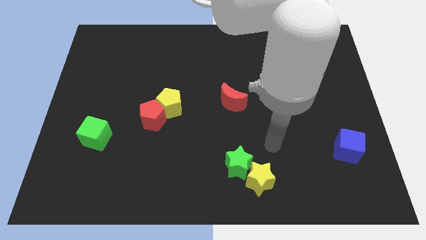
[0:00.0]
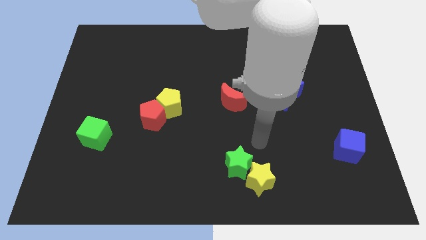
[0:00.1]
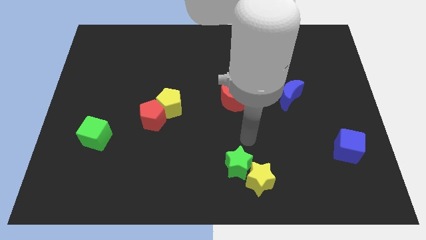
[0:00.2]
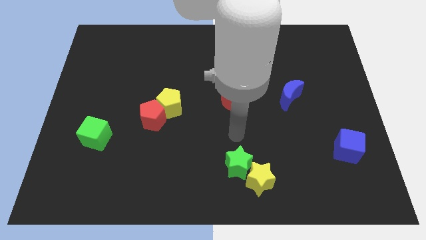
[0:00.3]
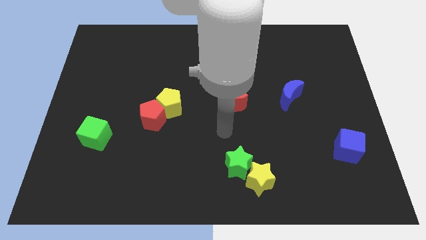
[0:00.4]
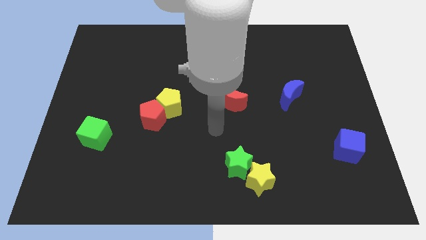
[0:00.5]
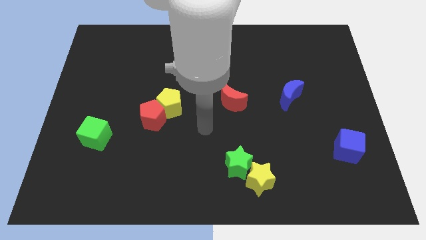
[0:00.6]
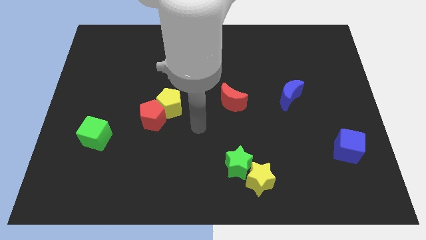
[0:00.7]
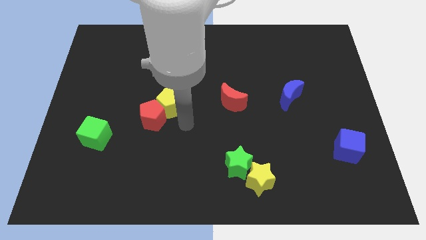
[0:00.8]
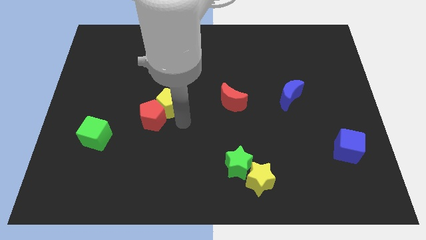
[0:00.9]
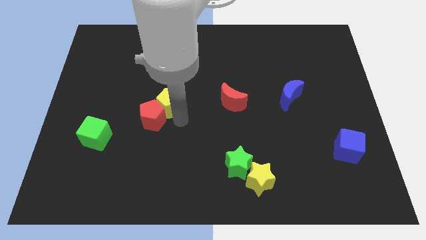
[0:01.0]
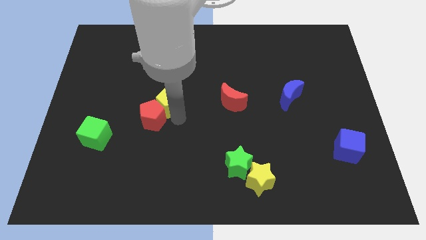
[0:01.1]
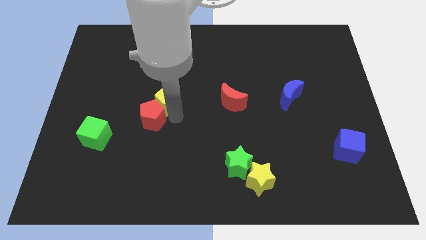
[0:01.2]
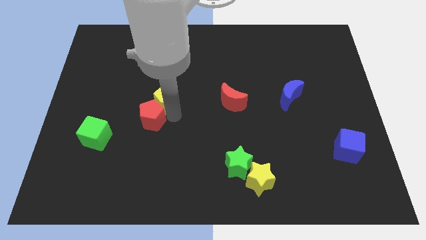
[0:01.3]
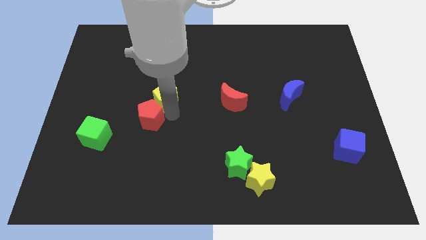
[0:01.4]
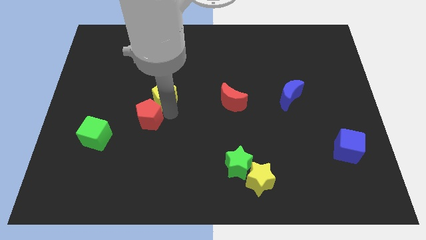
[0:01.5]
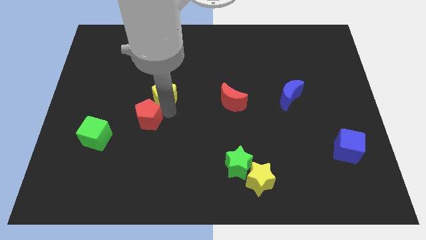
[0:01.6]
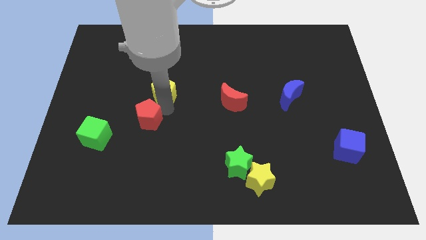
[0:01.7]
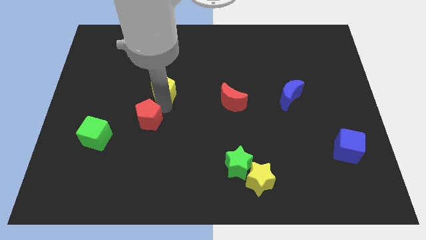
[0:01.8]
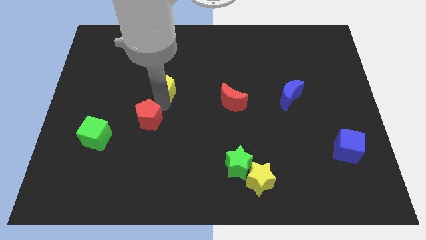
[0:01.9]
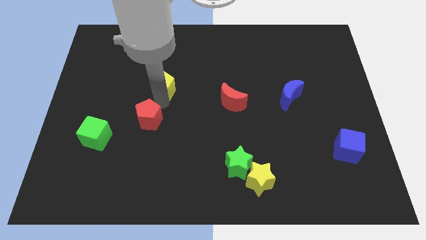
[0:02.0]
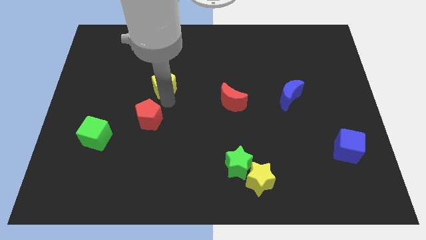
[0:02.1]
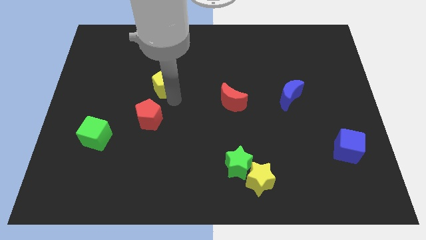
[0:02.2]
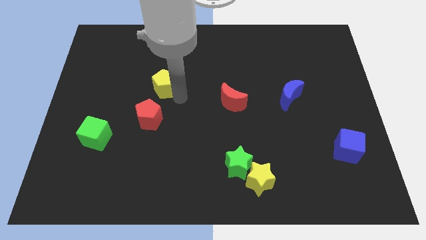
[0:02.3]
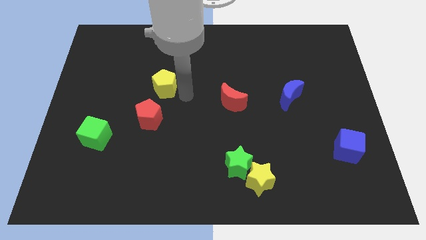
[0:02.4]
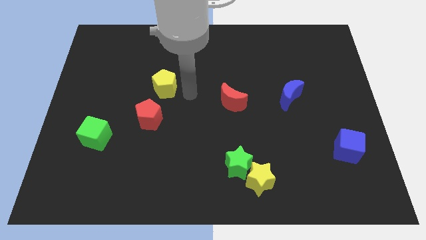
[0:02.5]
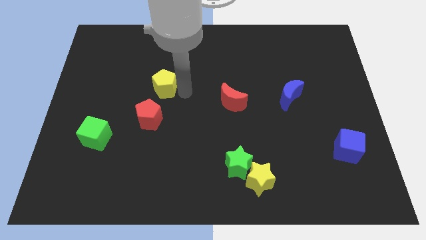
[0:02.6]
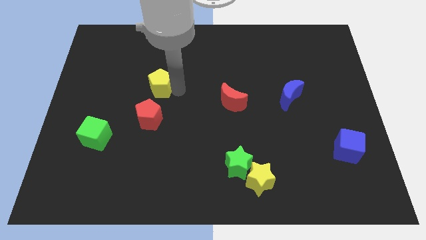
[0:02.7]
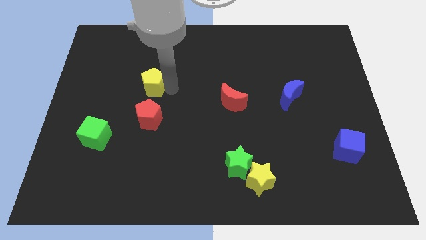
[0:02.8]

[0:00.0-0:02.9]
push the yellow pentagon upwards and then left a little

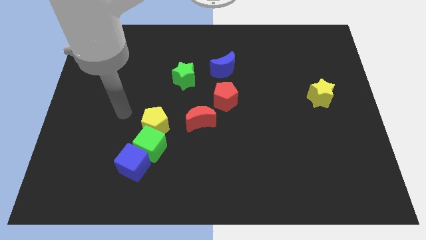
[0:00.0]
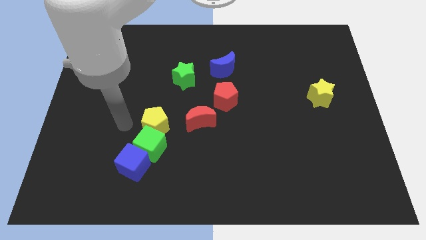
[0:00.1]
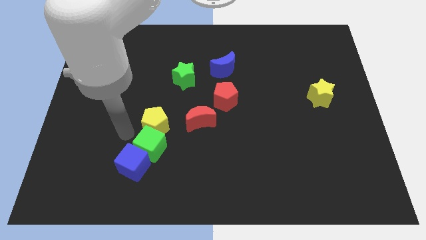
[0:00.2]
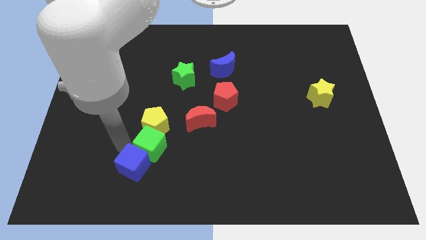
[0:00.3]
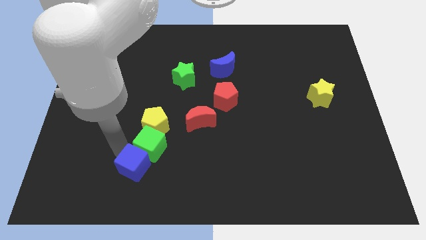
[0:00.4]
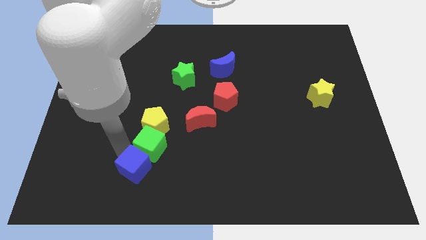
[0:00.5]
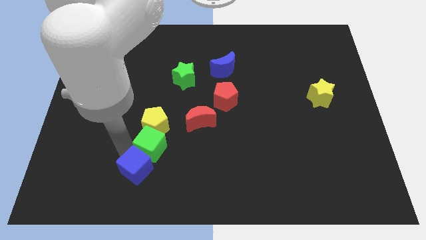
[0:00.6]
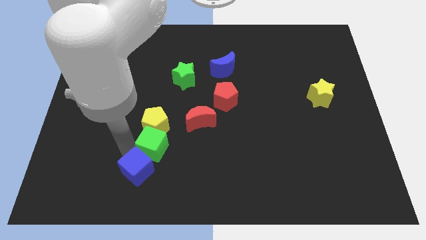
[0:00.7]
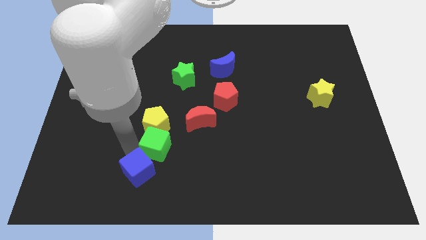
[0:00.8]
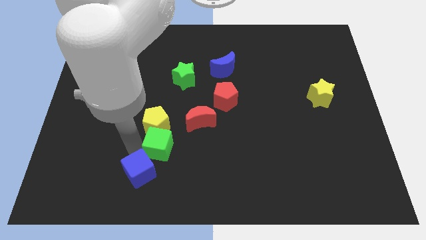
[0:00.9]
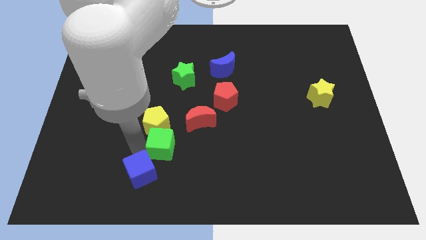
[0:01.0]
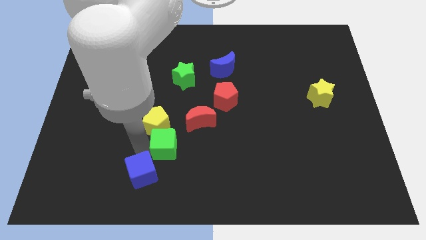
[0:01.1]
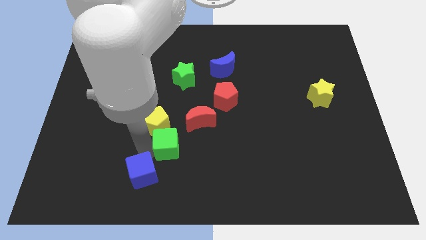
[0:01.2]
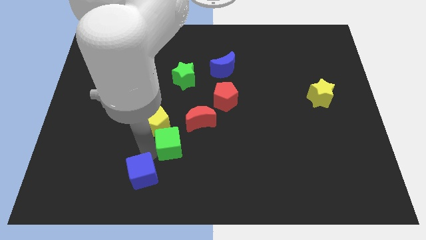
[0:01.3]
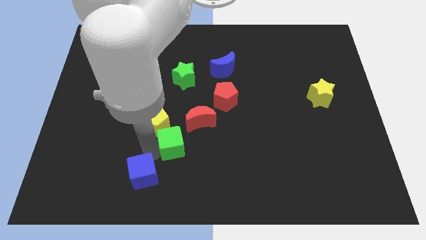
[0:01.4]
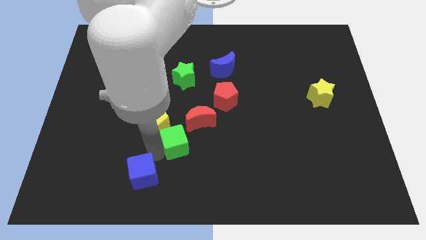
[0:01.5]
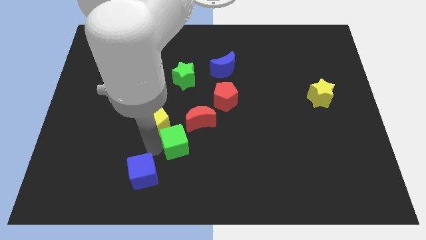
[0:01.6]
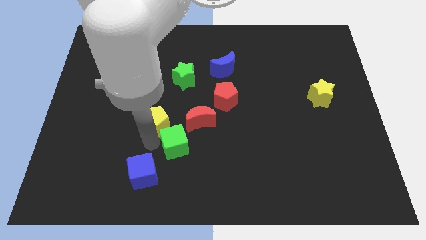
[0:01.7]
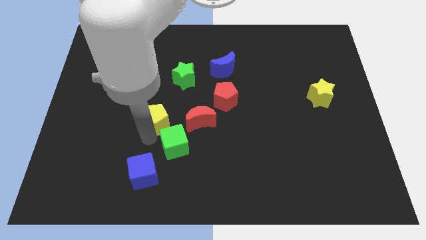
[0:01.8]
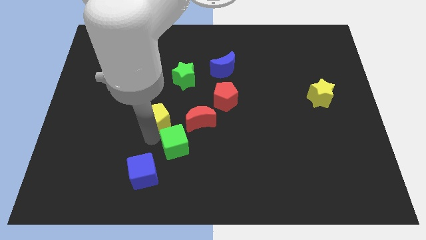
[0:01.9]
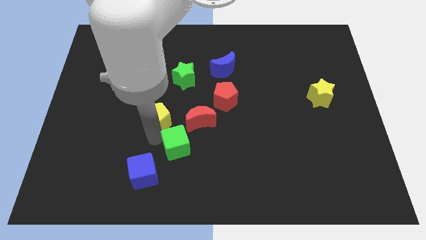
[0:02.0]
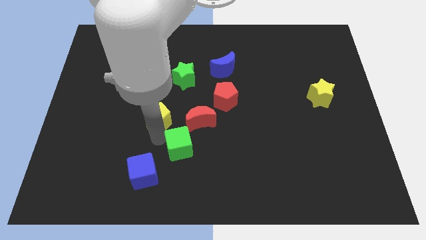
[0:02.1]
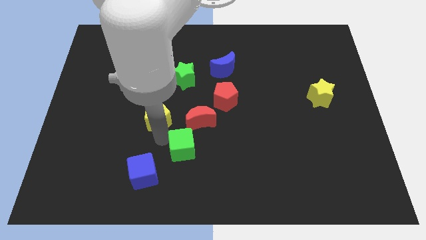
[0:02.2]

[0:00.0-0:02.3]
slightly move the green cube right

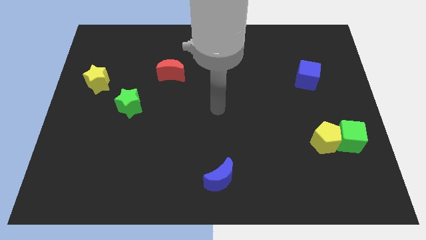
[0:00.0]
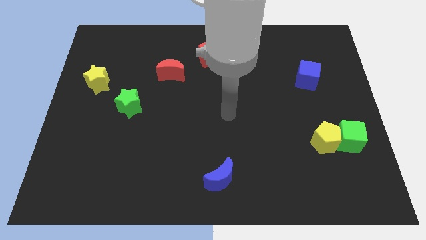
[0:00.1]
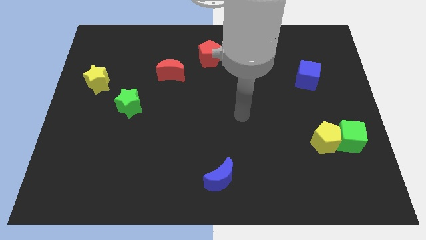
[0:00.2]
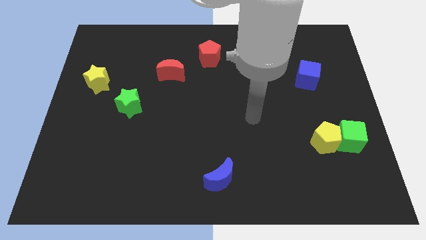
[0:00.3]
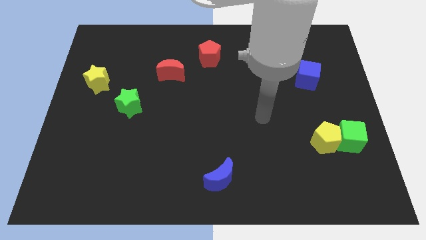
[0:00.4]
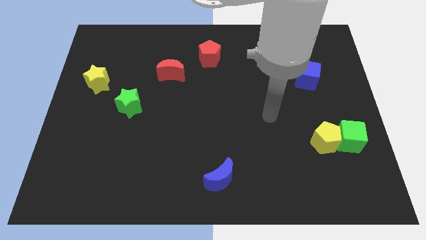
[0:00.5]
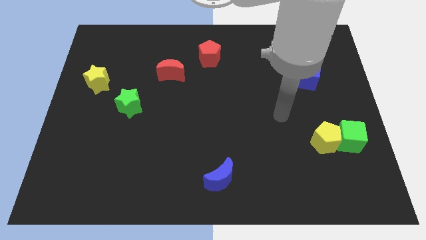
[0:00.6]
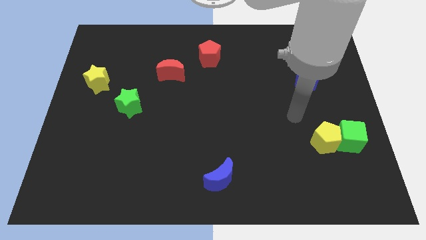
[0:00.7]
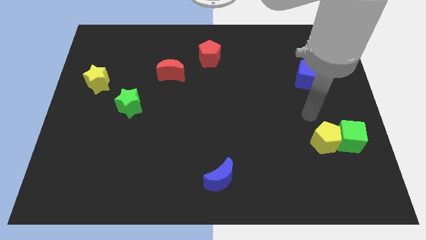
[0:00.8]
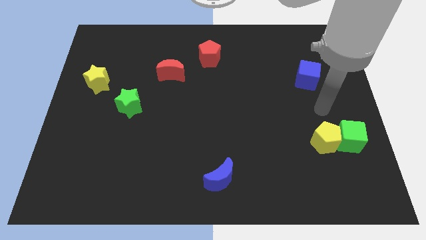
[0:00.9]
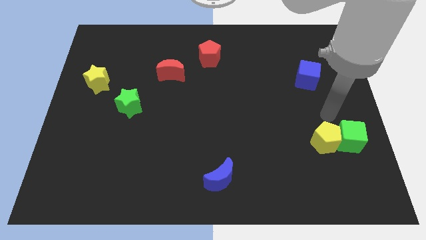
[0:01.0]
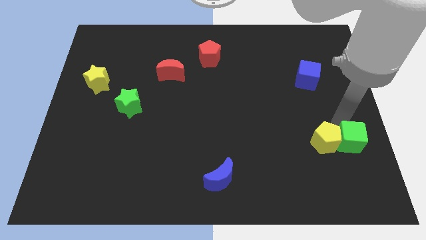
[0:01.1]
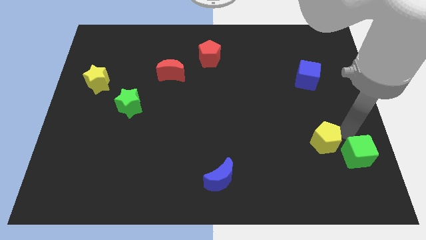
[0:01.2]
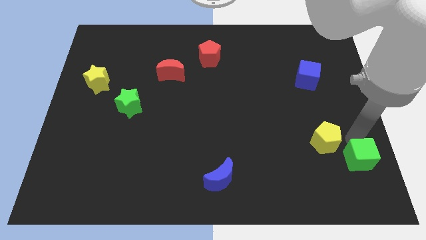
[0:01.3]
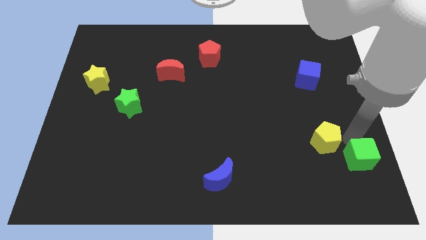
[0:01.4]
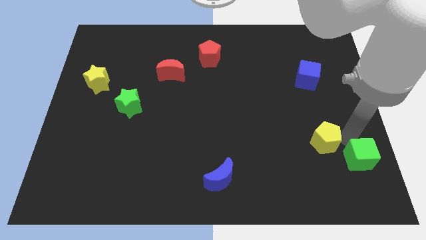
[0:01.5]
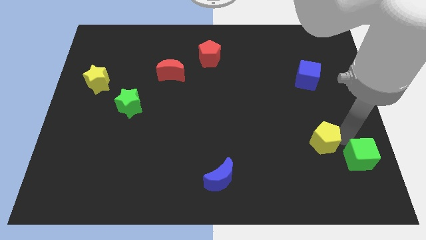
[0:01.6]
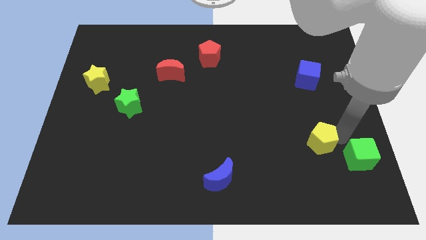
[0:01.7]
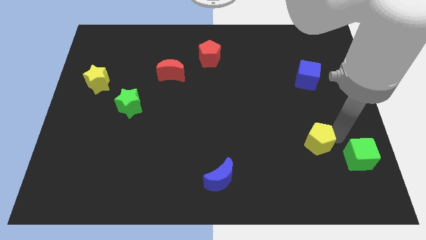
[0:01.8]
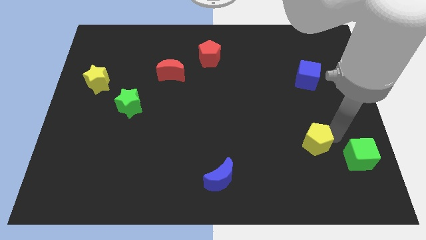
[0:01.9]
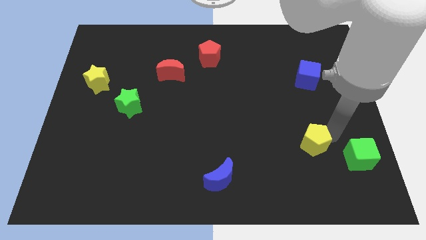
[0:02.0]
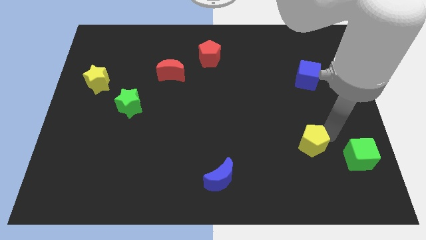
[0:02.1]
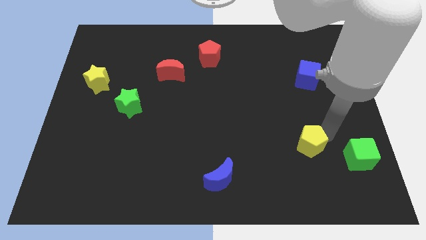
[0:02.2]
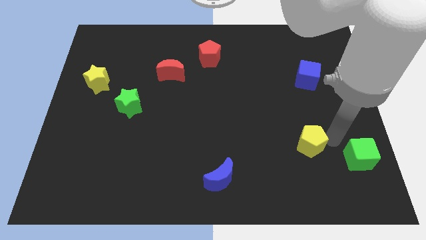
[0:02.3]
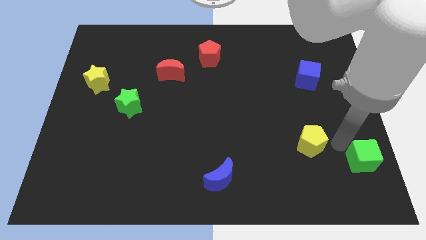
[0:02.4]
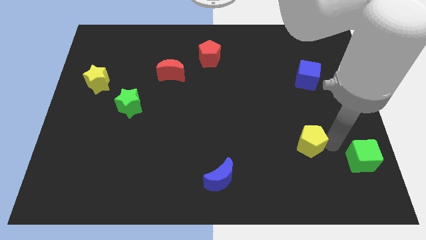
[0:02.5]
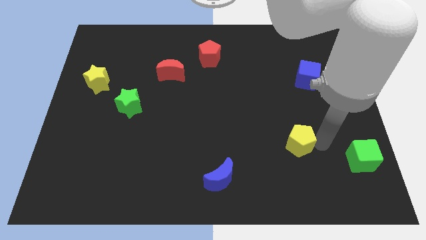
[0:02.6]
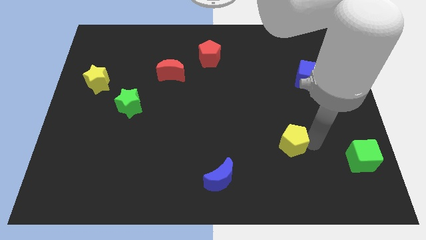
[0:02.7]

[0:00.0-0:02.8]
slide the yellow pentagon to the left a bit

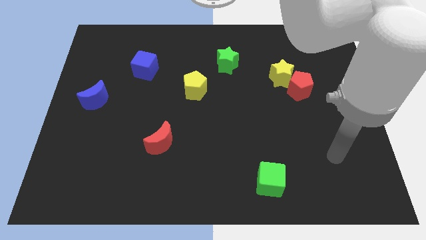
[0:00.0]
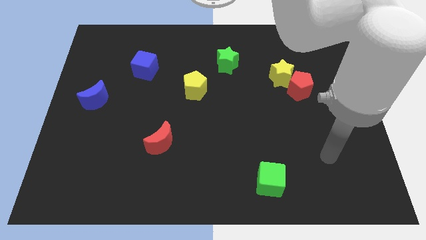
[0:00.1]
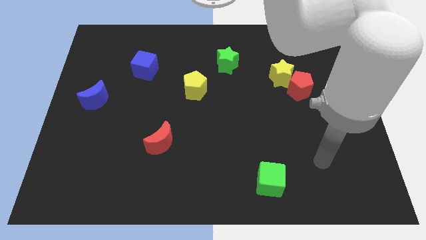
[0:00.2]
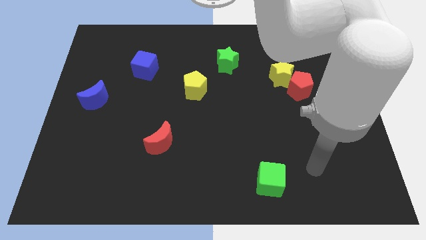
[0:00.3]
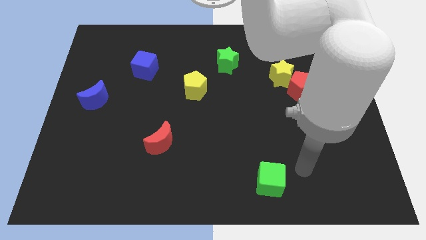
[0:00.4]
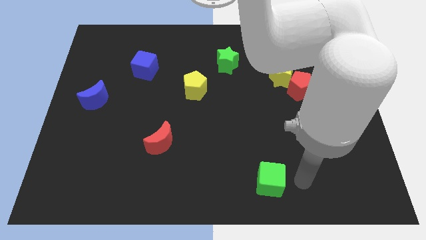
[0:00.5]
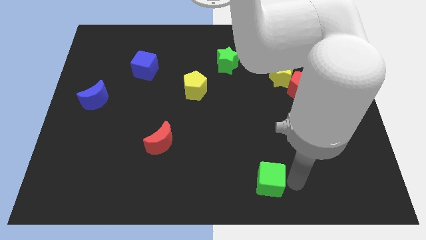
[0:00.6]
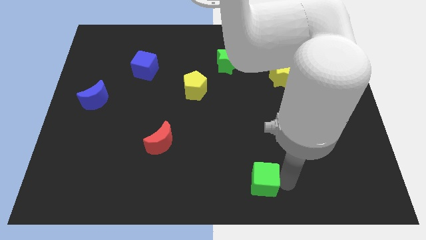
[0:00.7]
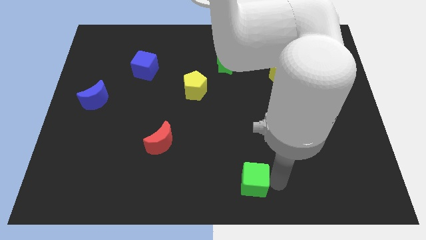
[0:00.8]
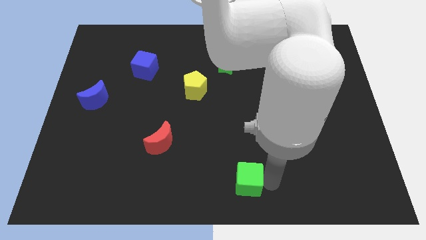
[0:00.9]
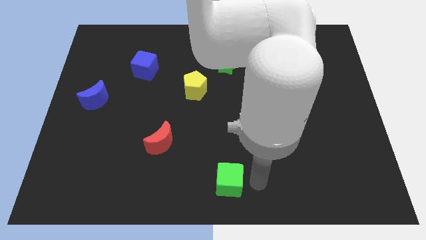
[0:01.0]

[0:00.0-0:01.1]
push the green cube a little bit left
